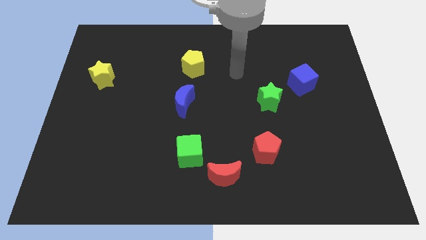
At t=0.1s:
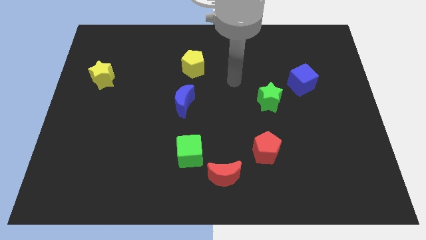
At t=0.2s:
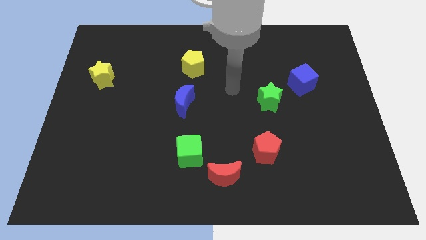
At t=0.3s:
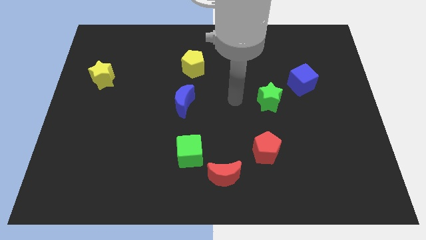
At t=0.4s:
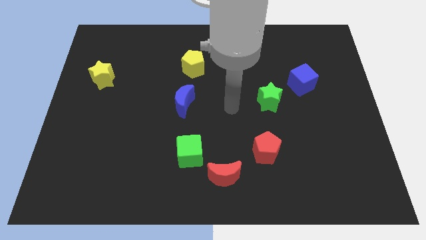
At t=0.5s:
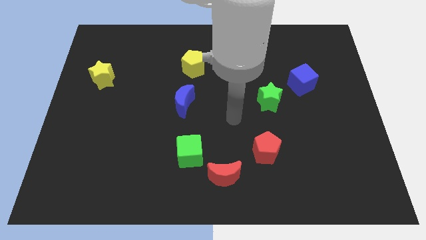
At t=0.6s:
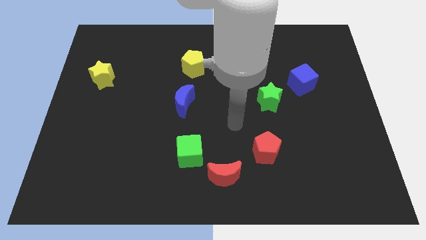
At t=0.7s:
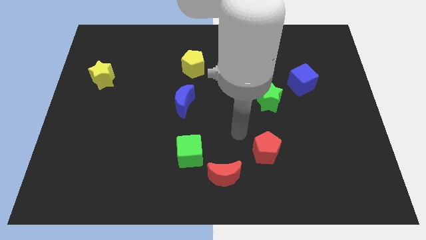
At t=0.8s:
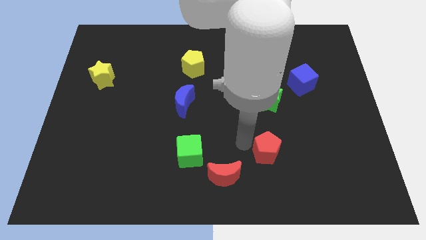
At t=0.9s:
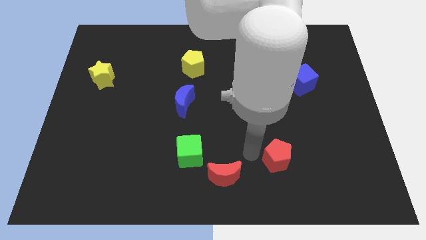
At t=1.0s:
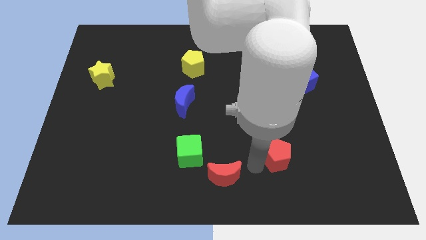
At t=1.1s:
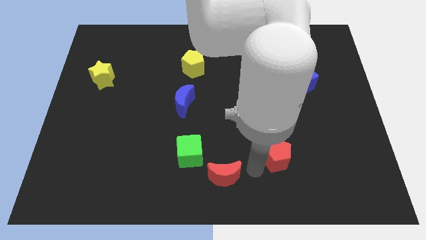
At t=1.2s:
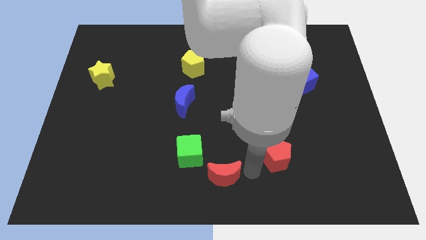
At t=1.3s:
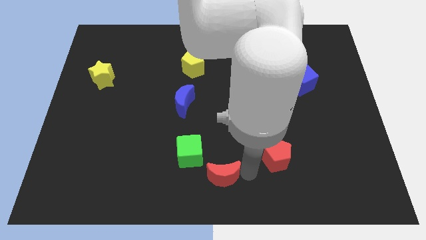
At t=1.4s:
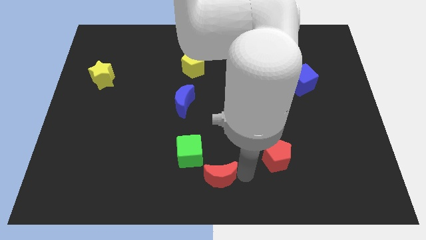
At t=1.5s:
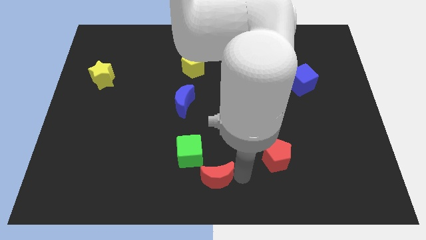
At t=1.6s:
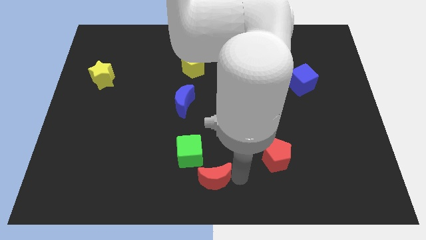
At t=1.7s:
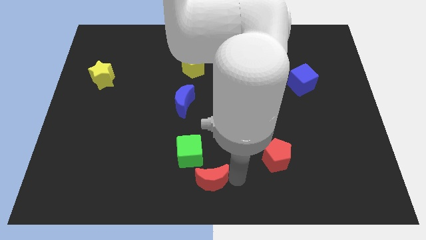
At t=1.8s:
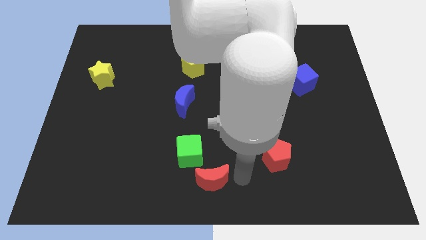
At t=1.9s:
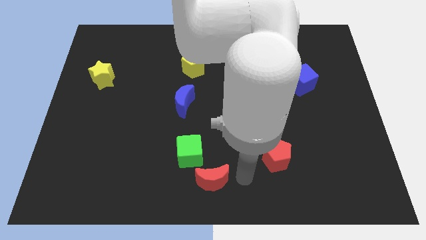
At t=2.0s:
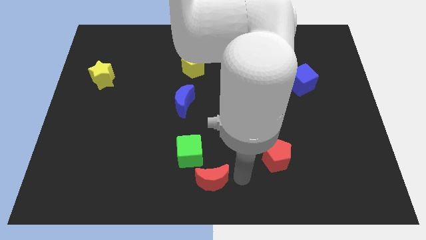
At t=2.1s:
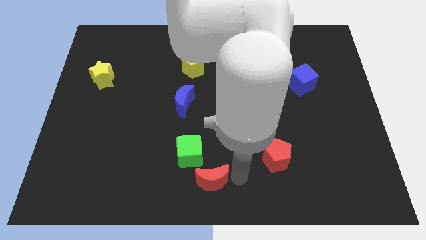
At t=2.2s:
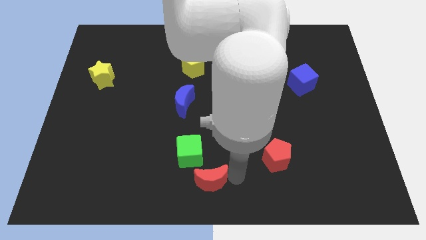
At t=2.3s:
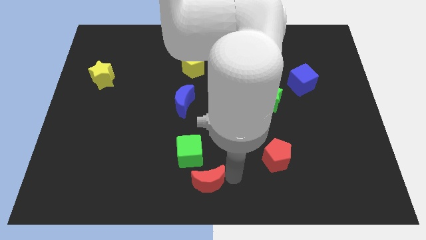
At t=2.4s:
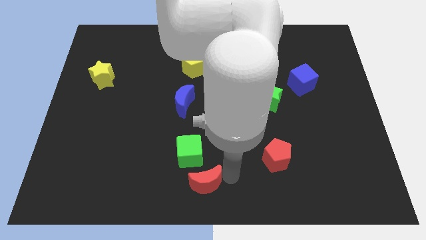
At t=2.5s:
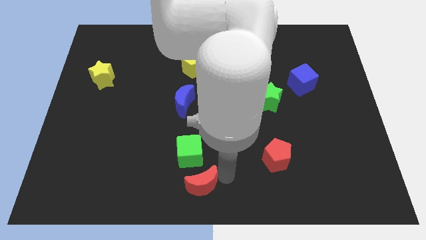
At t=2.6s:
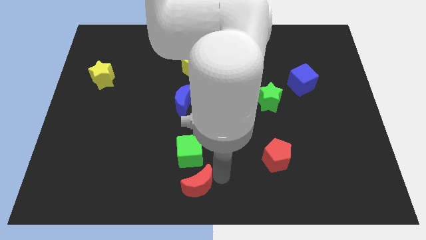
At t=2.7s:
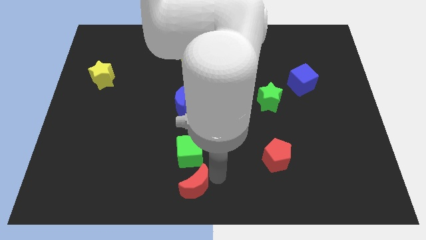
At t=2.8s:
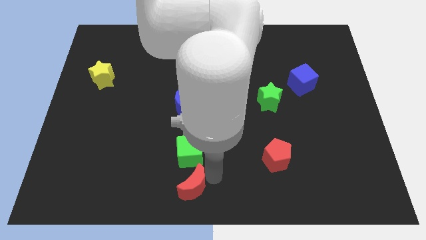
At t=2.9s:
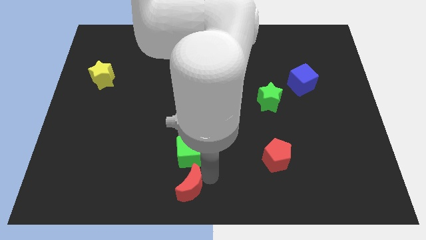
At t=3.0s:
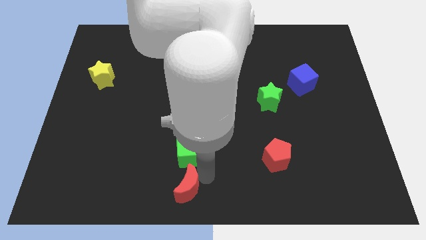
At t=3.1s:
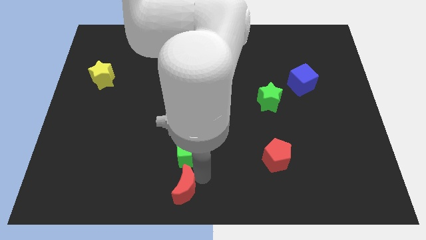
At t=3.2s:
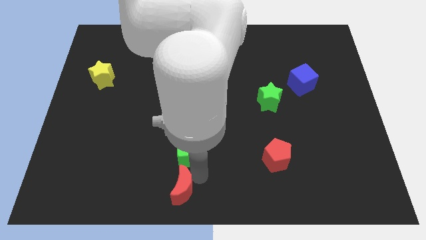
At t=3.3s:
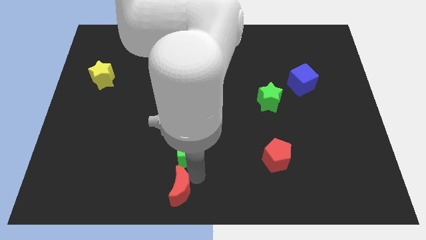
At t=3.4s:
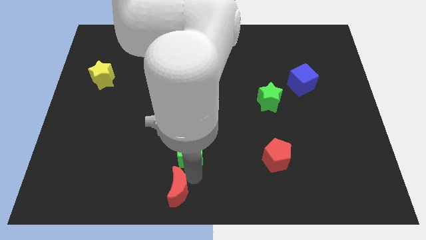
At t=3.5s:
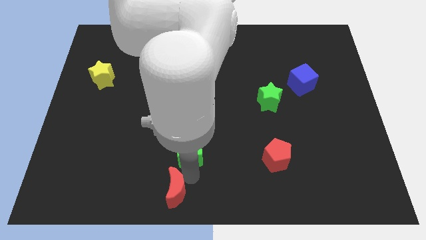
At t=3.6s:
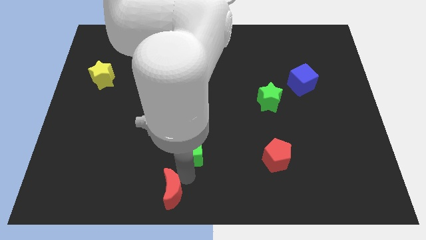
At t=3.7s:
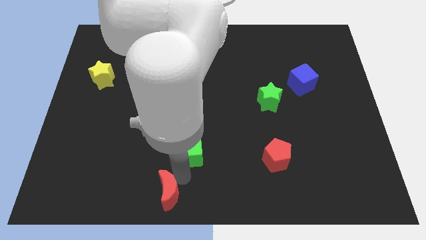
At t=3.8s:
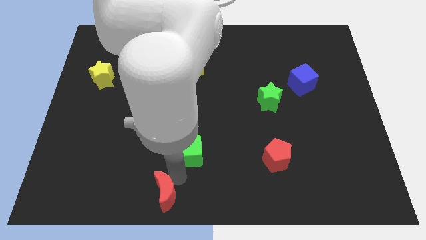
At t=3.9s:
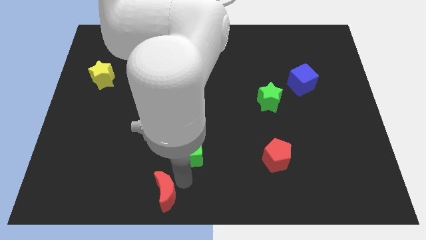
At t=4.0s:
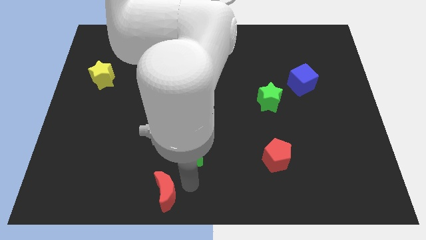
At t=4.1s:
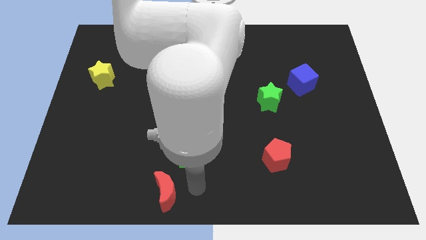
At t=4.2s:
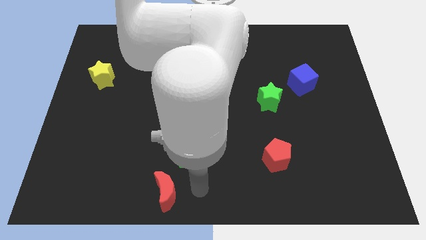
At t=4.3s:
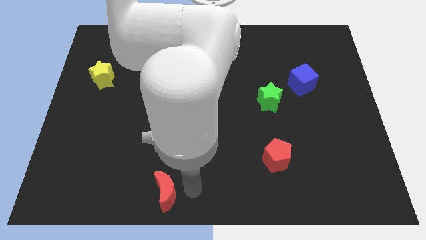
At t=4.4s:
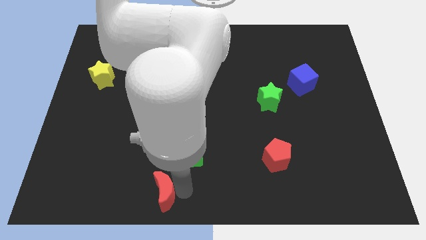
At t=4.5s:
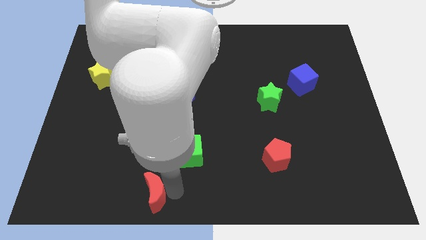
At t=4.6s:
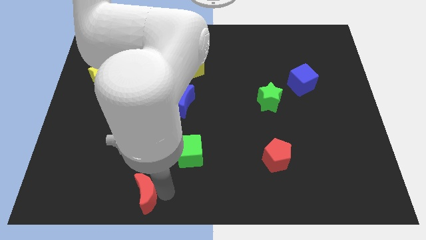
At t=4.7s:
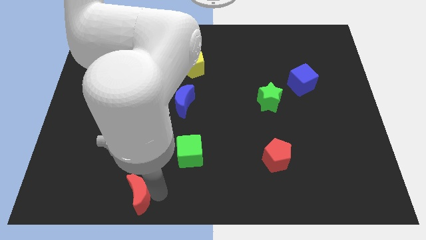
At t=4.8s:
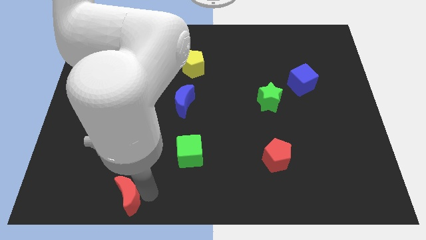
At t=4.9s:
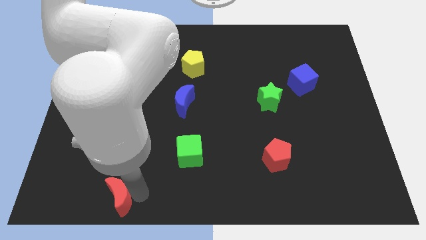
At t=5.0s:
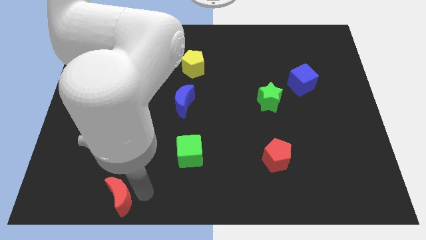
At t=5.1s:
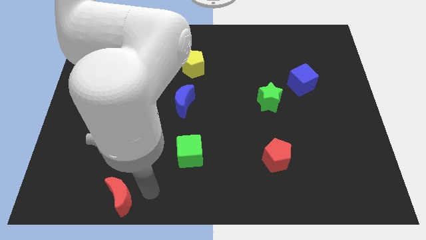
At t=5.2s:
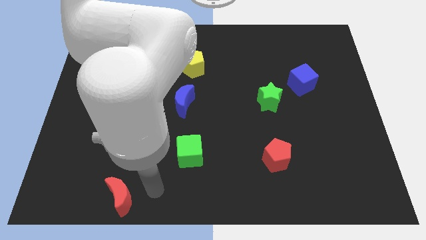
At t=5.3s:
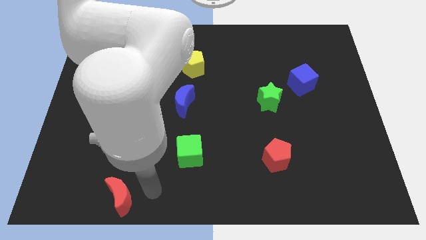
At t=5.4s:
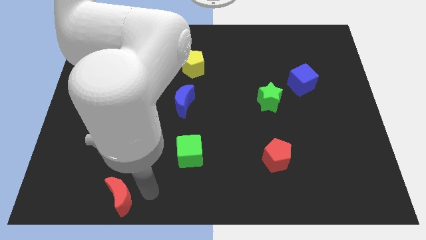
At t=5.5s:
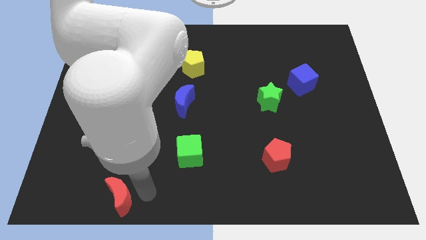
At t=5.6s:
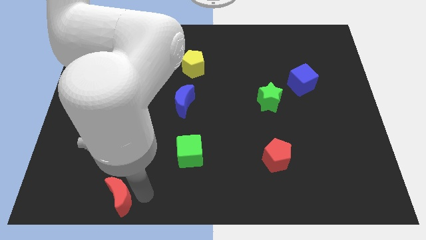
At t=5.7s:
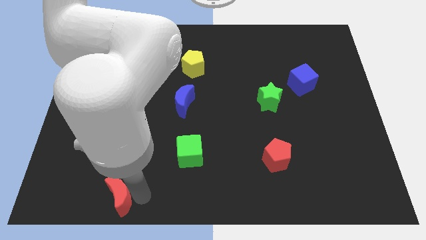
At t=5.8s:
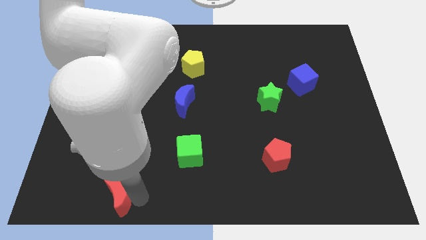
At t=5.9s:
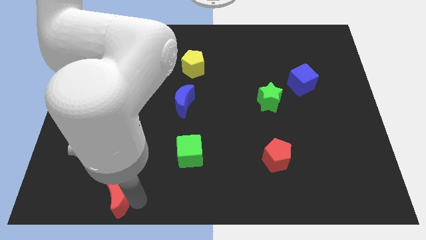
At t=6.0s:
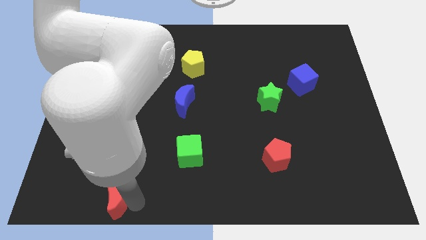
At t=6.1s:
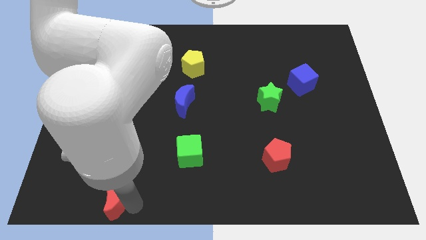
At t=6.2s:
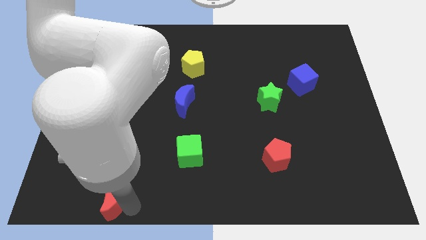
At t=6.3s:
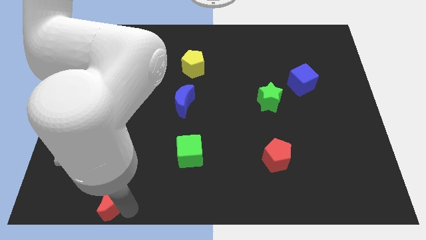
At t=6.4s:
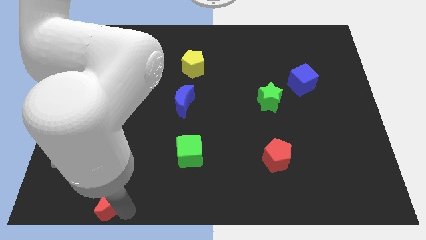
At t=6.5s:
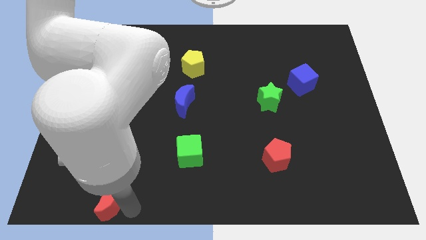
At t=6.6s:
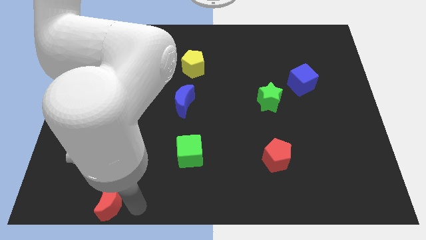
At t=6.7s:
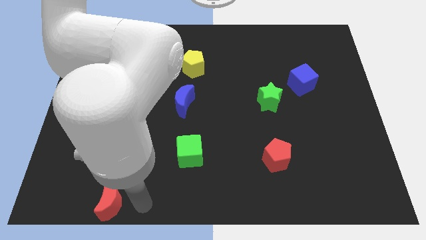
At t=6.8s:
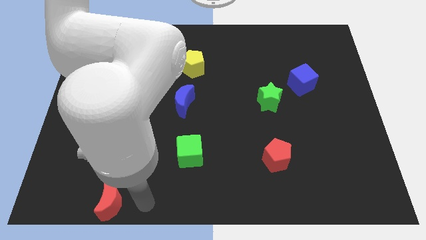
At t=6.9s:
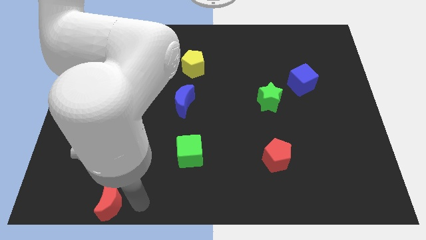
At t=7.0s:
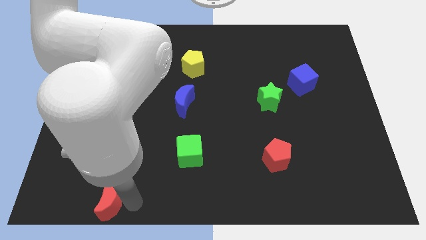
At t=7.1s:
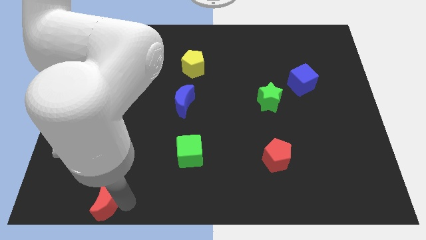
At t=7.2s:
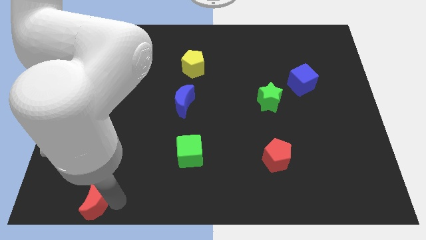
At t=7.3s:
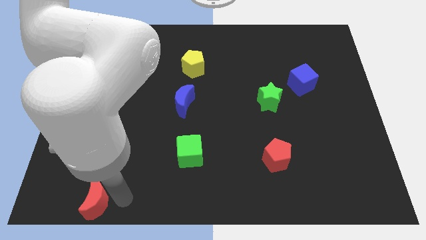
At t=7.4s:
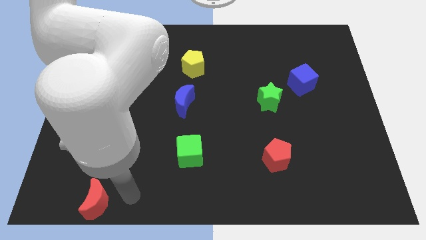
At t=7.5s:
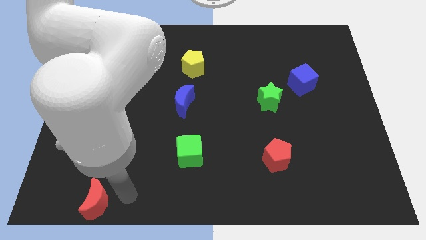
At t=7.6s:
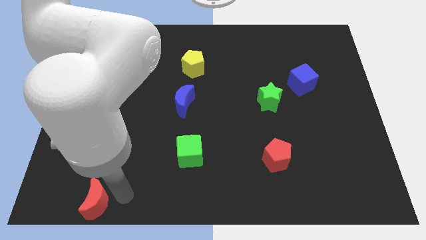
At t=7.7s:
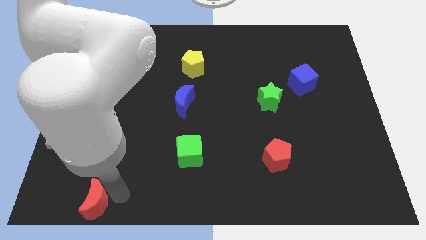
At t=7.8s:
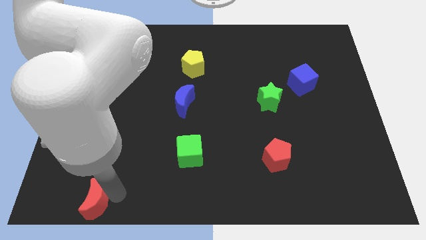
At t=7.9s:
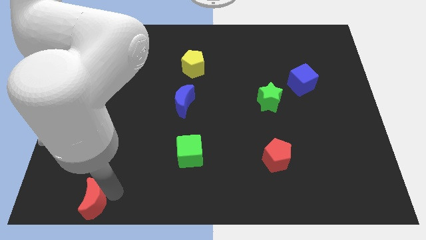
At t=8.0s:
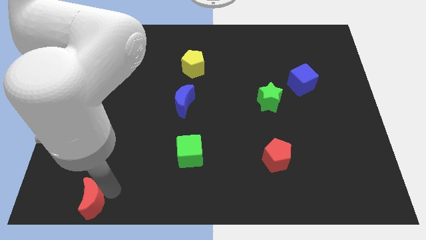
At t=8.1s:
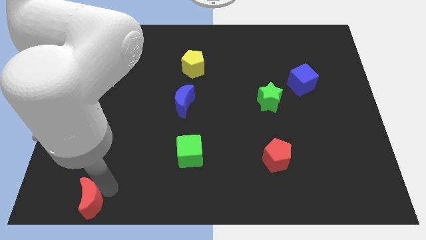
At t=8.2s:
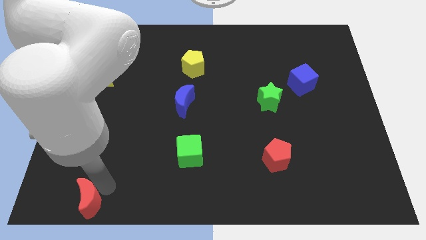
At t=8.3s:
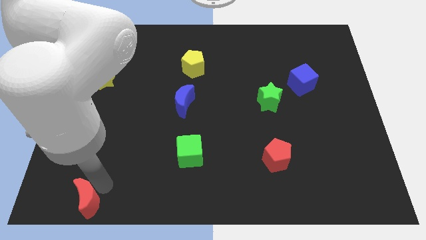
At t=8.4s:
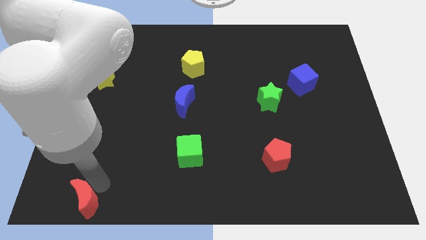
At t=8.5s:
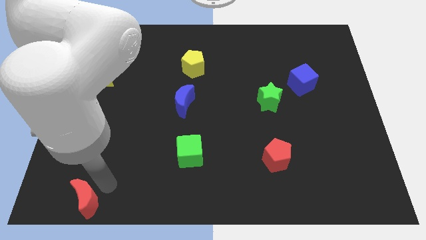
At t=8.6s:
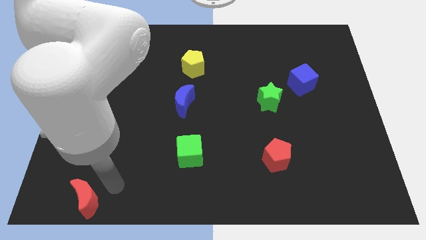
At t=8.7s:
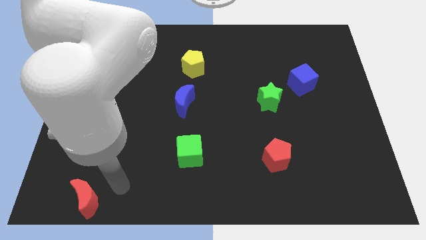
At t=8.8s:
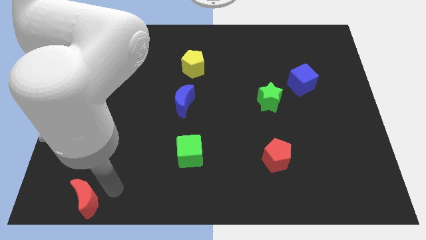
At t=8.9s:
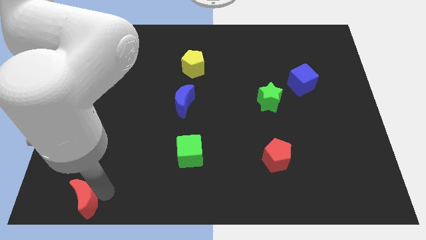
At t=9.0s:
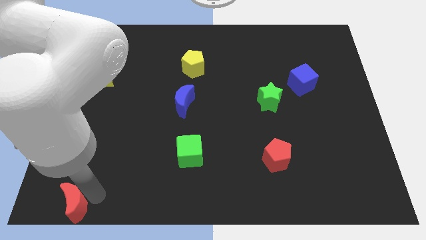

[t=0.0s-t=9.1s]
move the red moon to the bottom left
